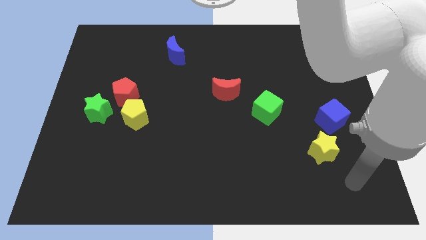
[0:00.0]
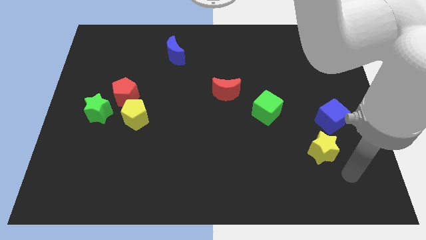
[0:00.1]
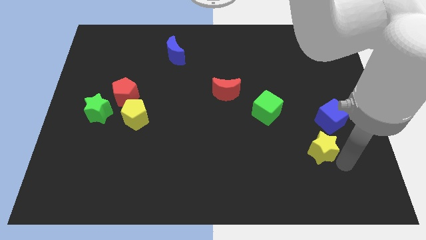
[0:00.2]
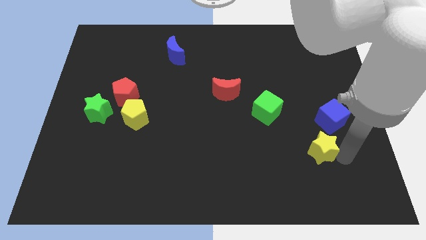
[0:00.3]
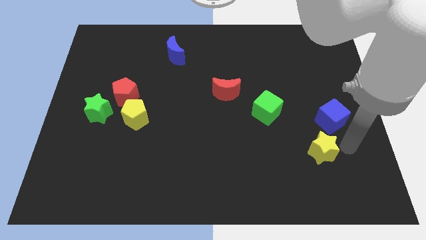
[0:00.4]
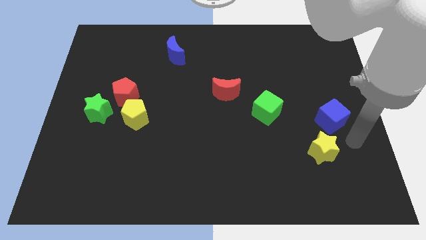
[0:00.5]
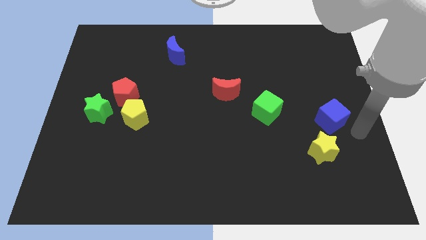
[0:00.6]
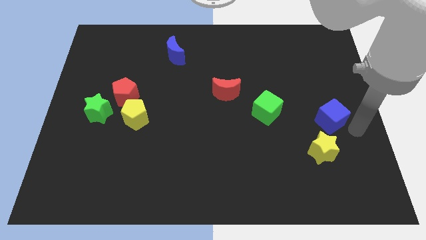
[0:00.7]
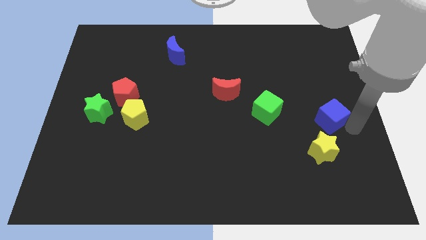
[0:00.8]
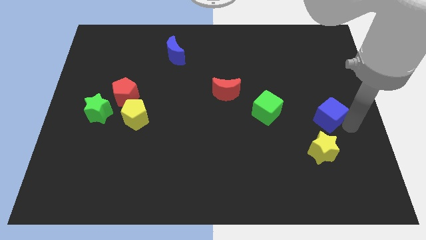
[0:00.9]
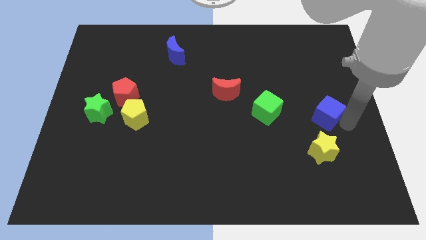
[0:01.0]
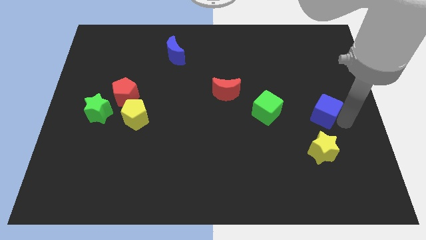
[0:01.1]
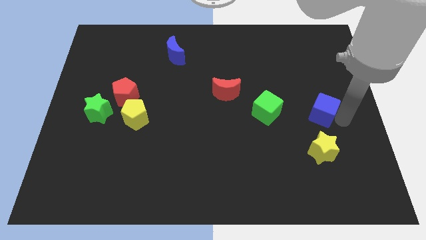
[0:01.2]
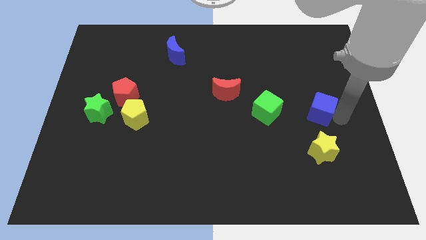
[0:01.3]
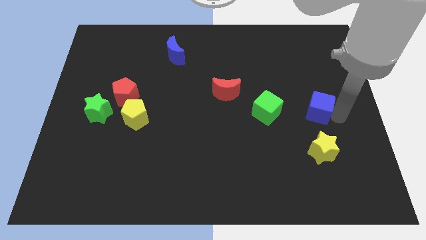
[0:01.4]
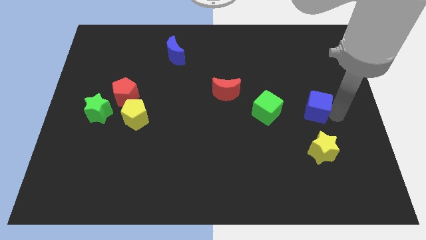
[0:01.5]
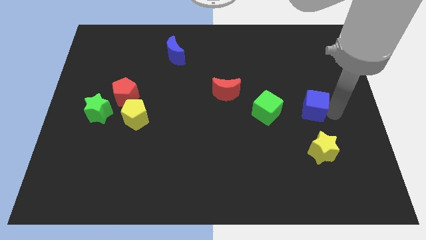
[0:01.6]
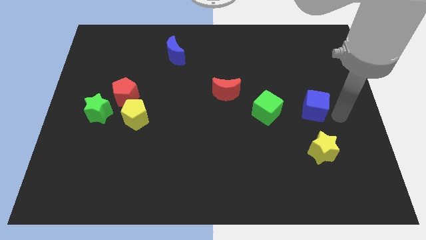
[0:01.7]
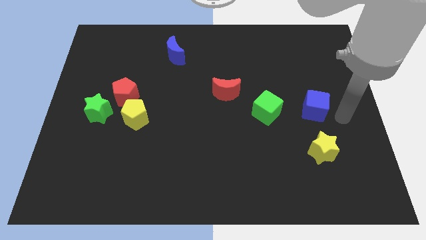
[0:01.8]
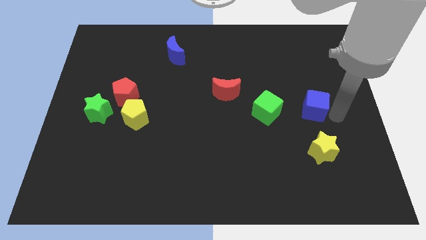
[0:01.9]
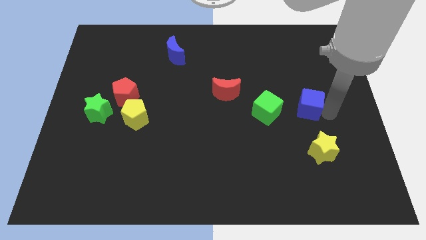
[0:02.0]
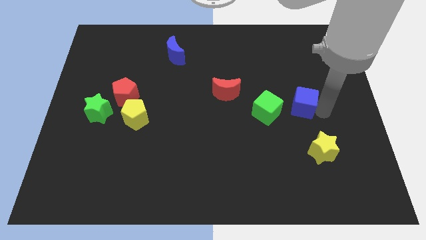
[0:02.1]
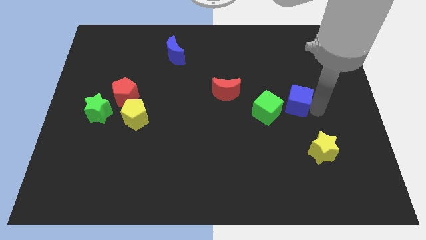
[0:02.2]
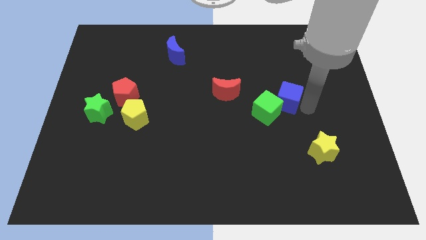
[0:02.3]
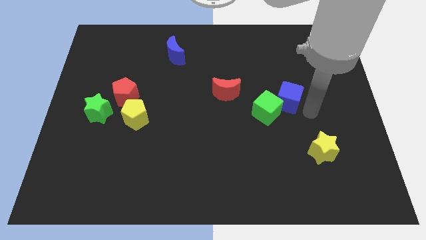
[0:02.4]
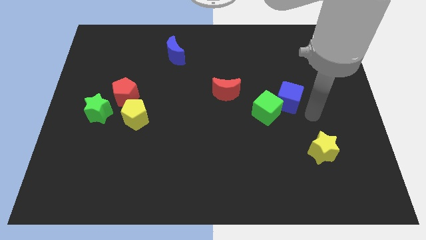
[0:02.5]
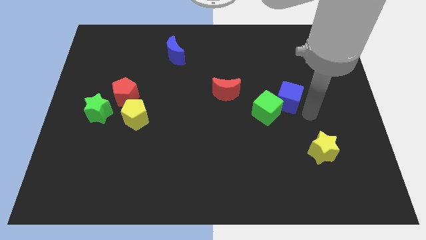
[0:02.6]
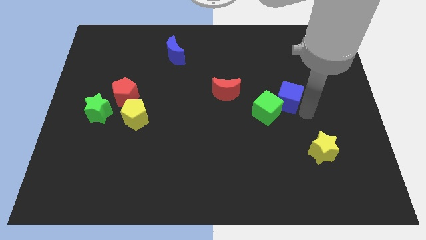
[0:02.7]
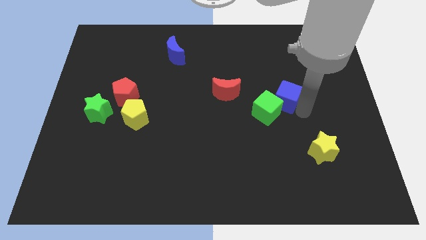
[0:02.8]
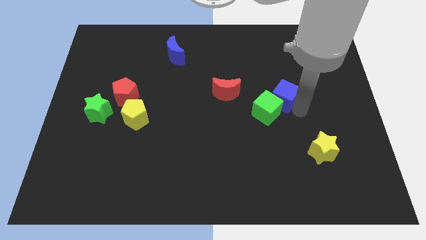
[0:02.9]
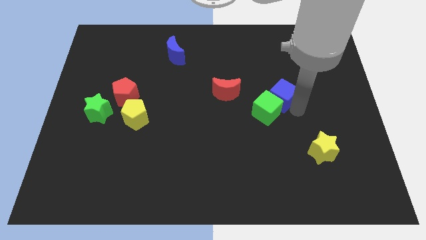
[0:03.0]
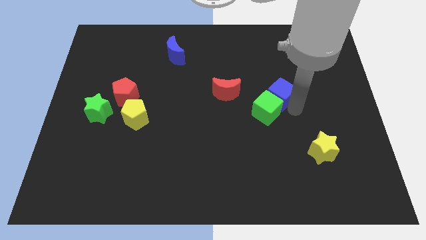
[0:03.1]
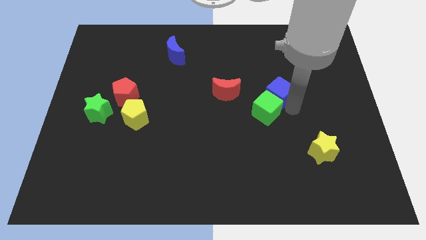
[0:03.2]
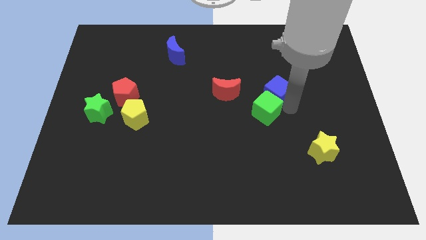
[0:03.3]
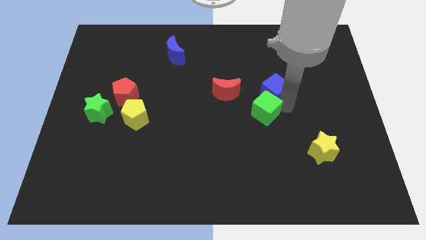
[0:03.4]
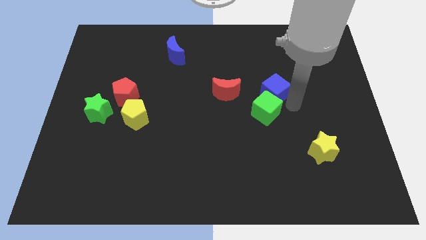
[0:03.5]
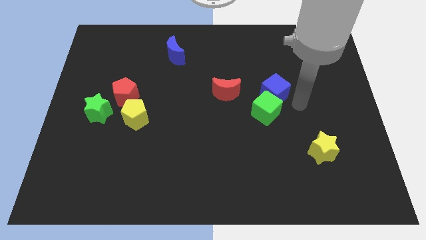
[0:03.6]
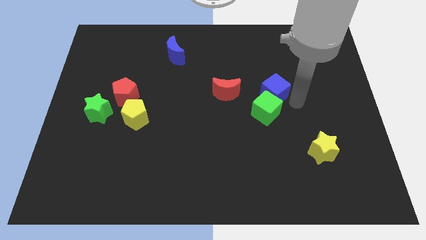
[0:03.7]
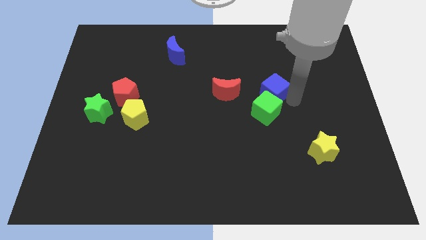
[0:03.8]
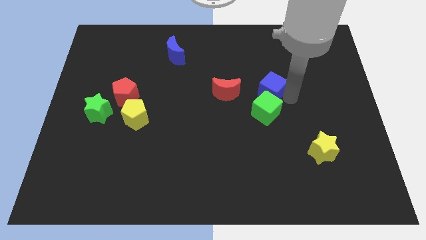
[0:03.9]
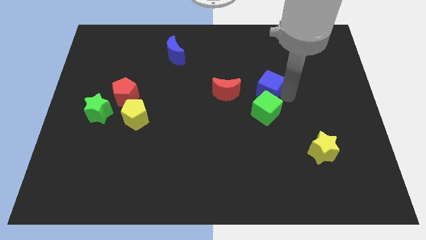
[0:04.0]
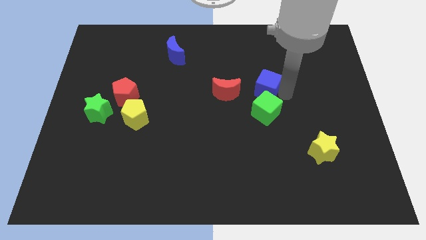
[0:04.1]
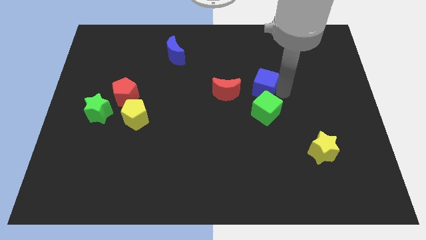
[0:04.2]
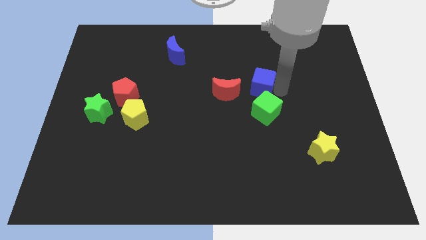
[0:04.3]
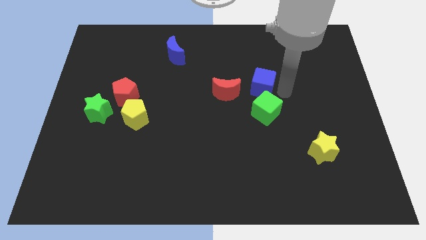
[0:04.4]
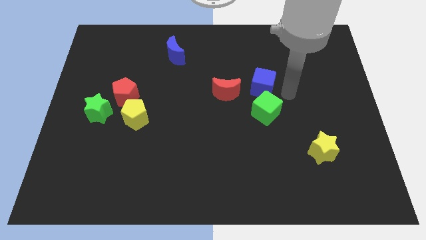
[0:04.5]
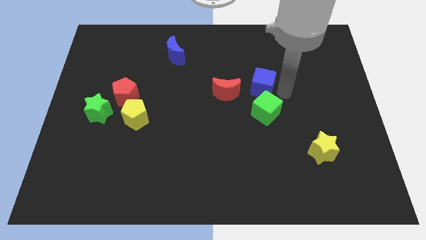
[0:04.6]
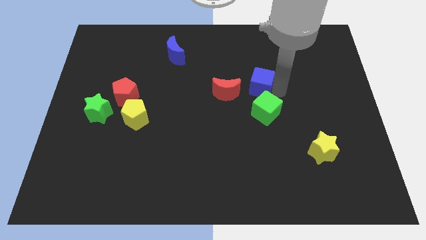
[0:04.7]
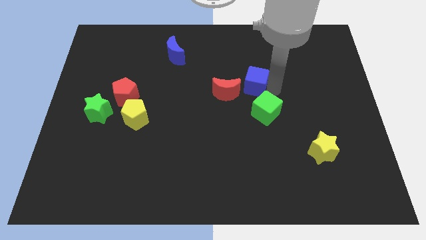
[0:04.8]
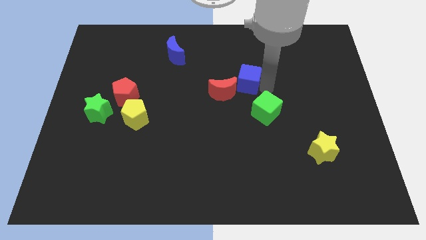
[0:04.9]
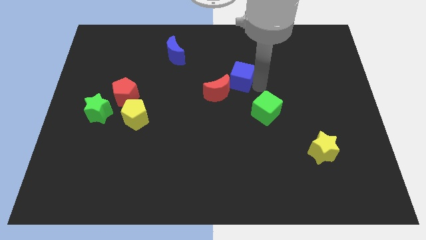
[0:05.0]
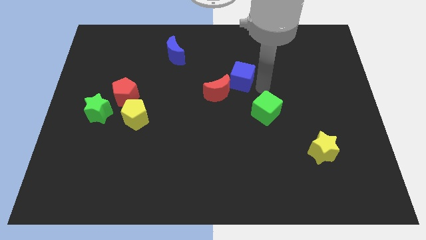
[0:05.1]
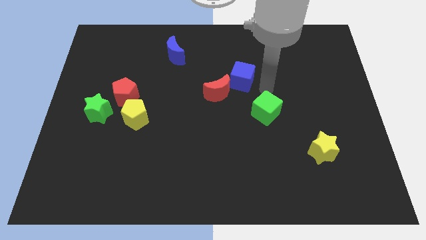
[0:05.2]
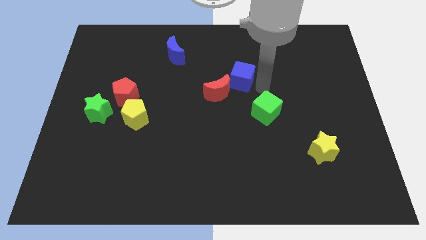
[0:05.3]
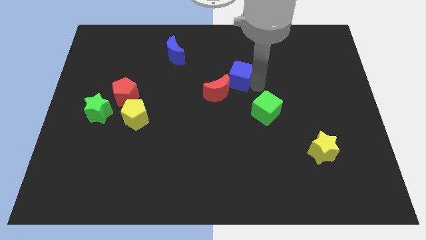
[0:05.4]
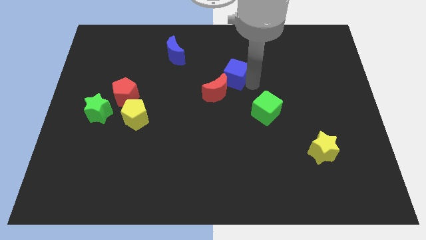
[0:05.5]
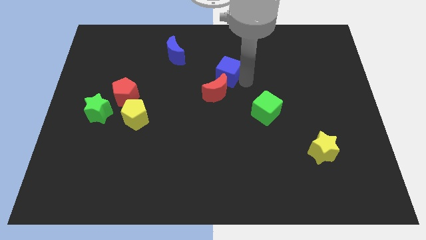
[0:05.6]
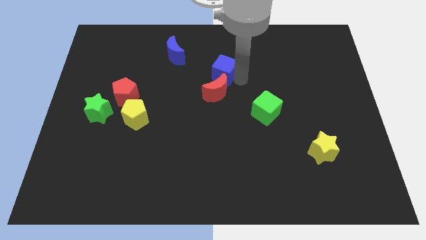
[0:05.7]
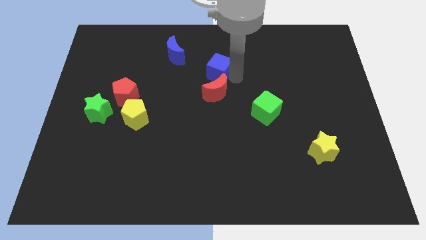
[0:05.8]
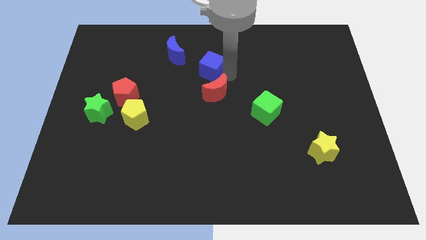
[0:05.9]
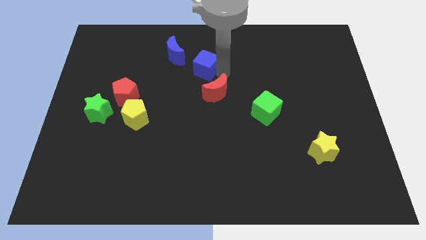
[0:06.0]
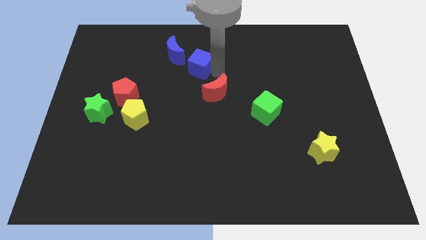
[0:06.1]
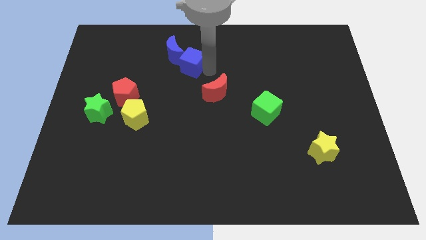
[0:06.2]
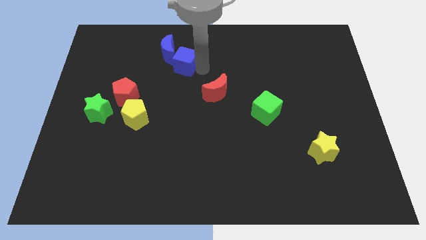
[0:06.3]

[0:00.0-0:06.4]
move the blue cube close to the blue moon

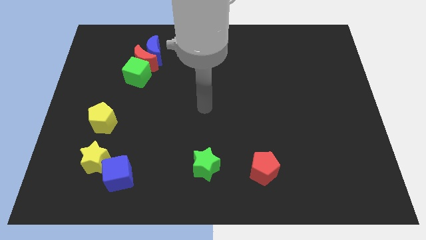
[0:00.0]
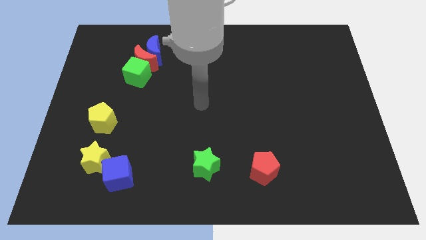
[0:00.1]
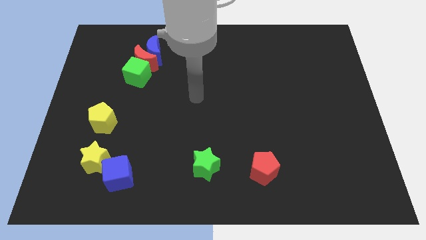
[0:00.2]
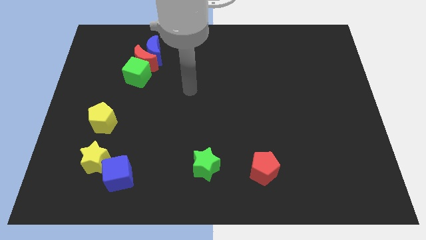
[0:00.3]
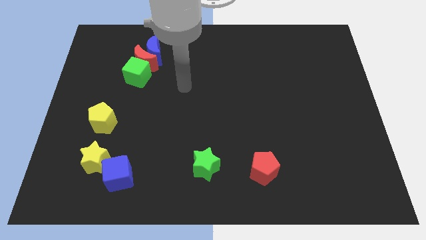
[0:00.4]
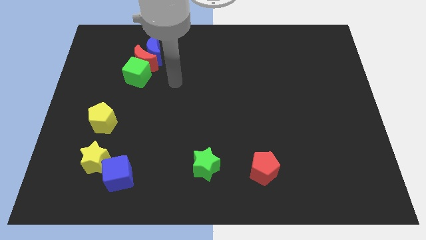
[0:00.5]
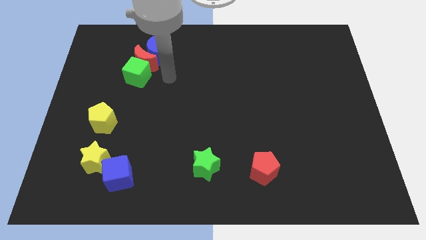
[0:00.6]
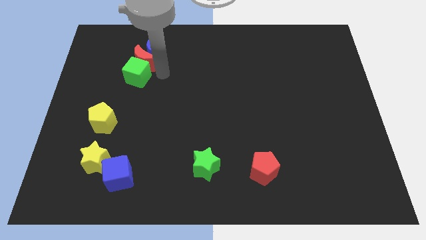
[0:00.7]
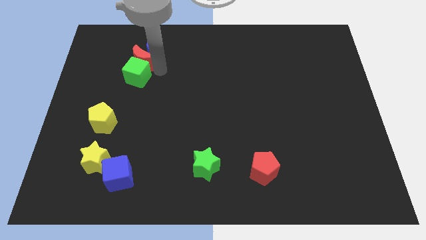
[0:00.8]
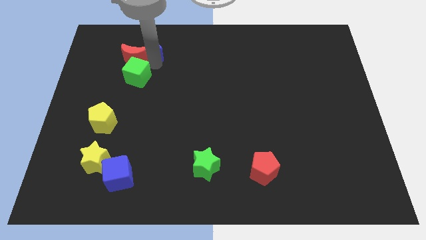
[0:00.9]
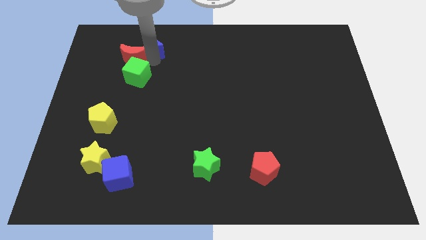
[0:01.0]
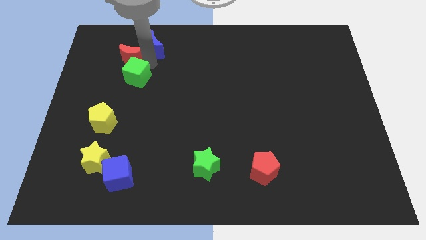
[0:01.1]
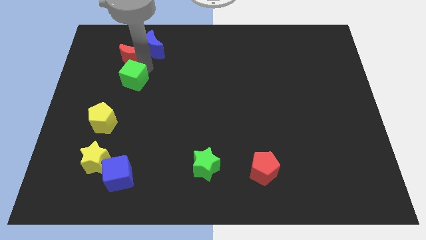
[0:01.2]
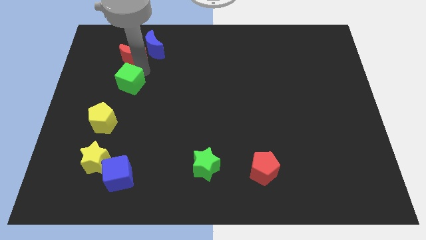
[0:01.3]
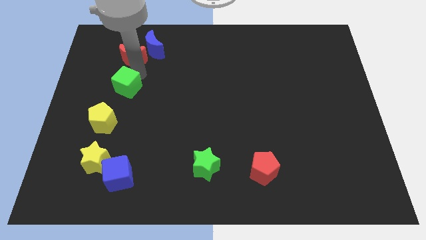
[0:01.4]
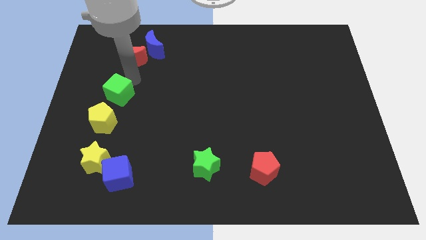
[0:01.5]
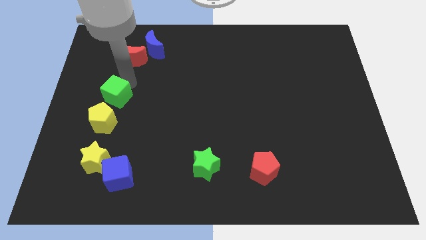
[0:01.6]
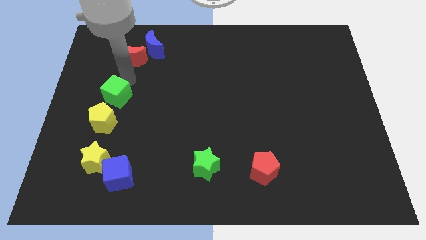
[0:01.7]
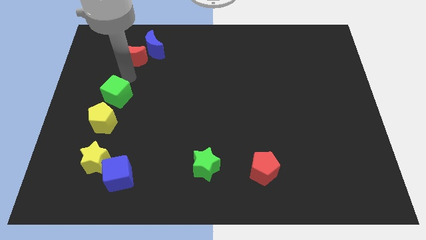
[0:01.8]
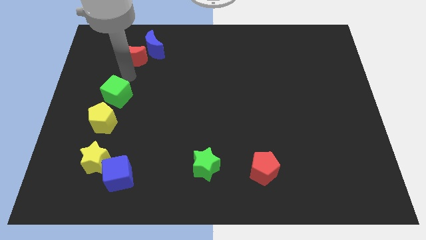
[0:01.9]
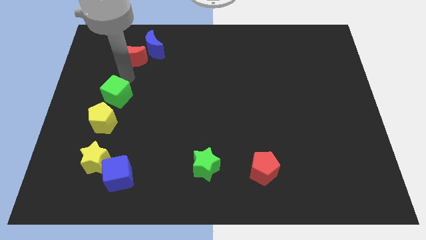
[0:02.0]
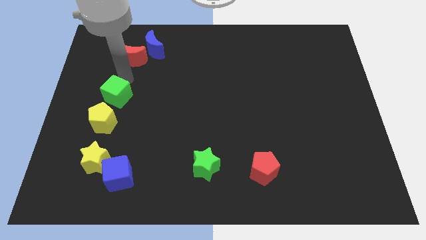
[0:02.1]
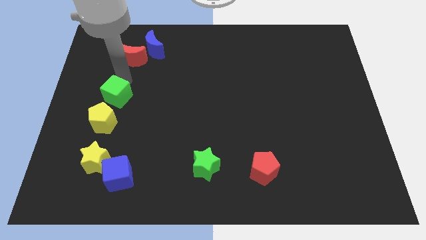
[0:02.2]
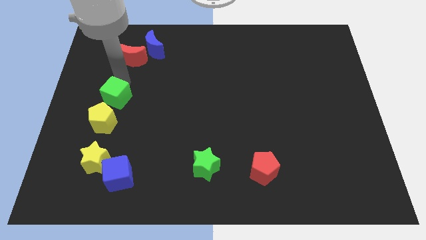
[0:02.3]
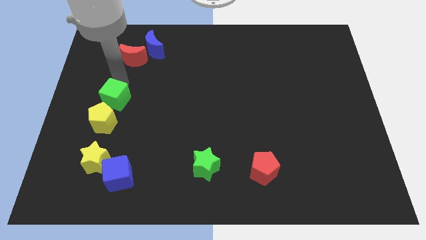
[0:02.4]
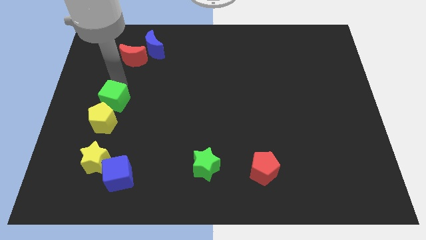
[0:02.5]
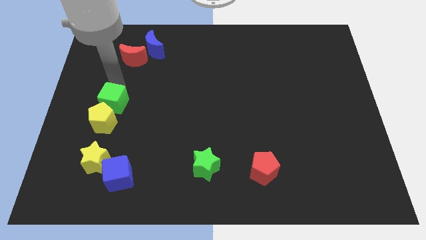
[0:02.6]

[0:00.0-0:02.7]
put the green cube close to the yellow pentagon
